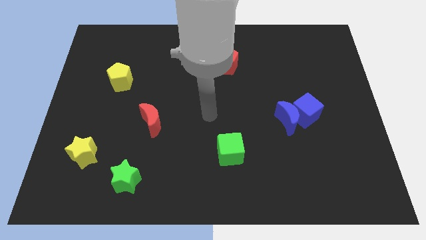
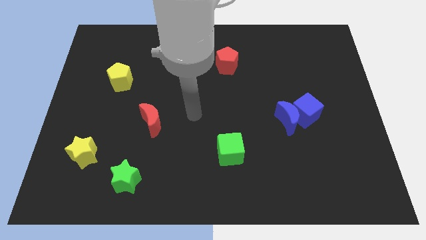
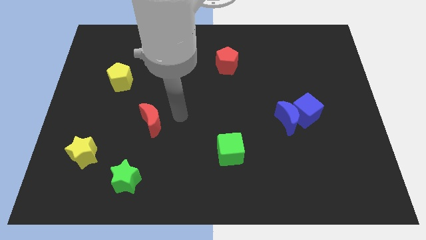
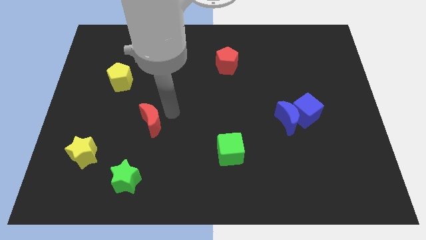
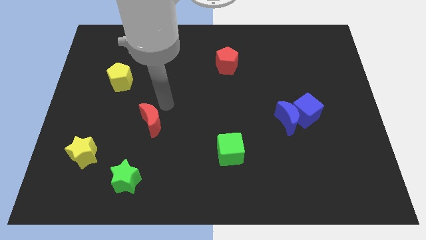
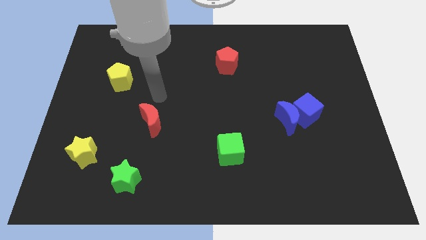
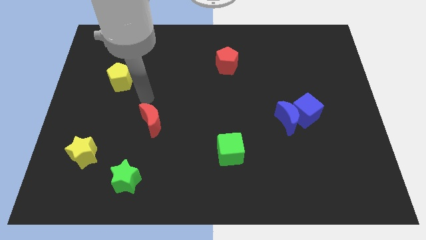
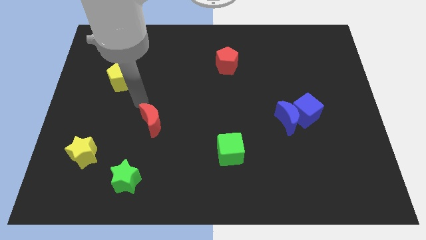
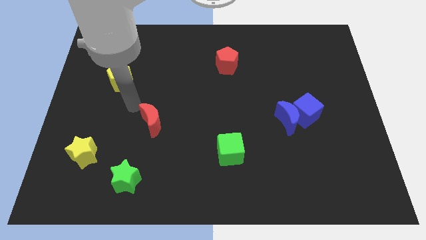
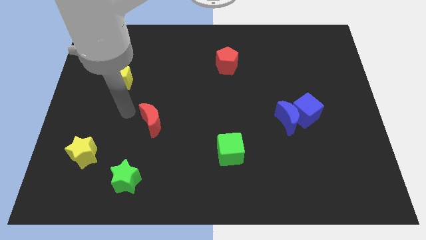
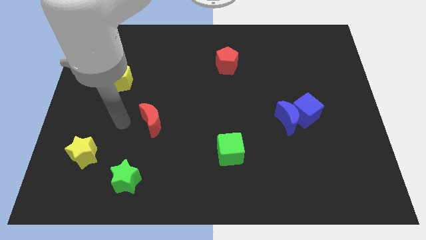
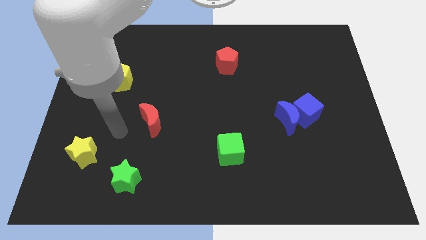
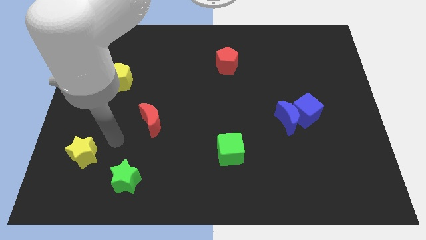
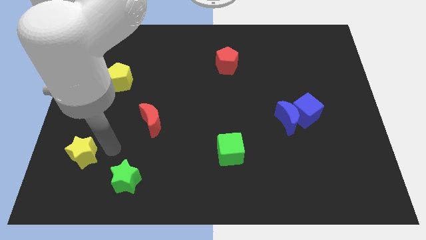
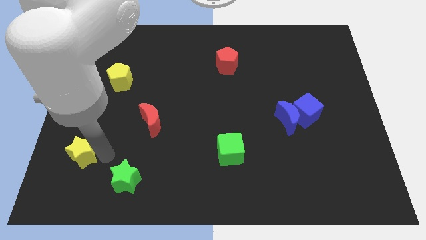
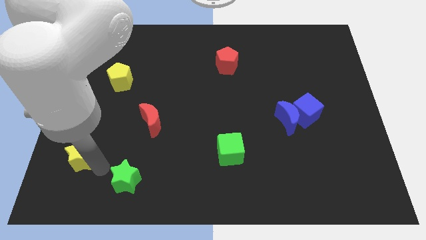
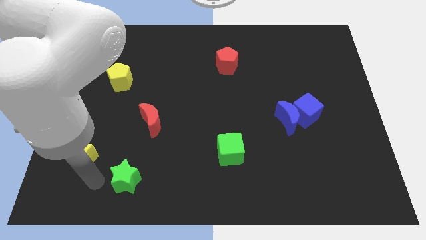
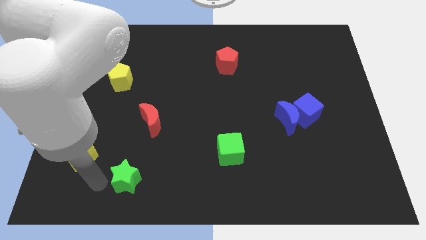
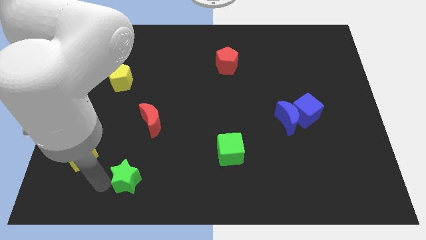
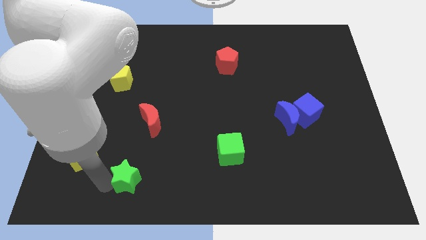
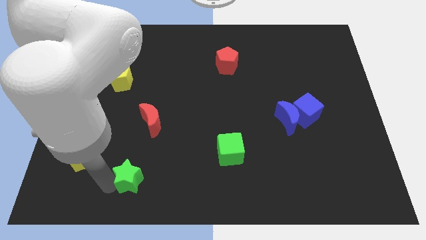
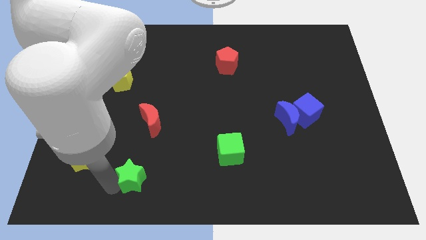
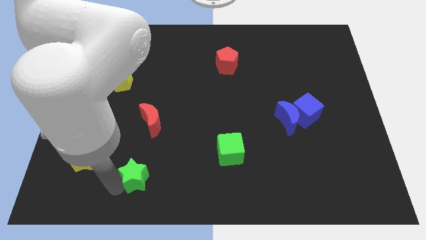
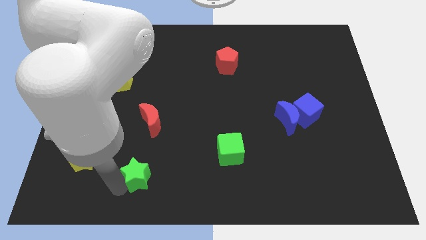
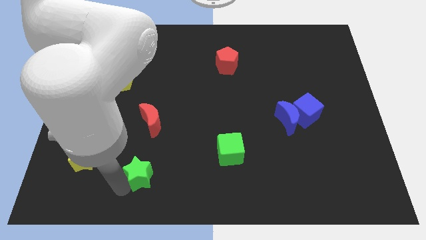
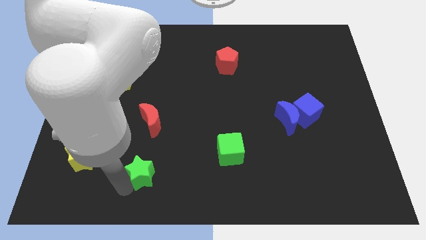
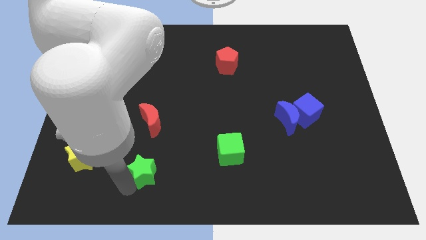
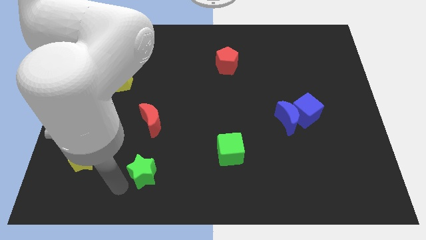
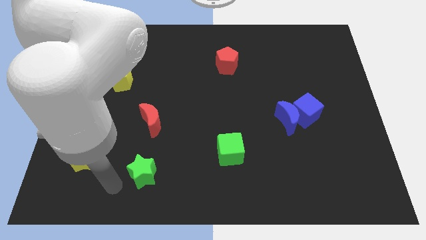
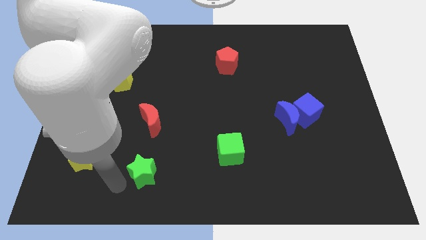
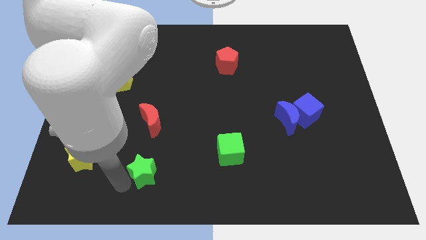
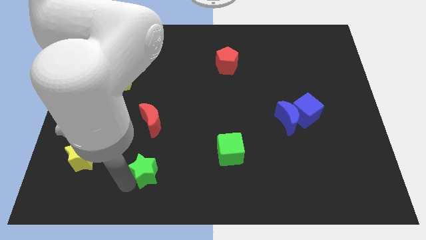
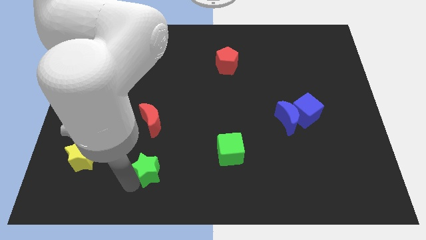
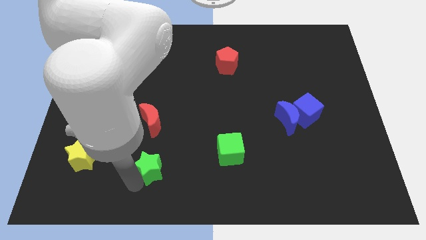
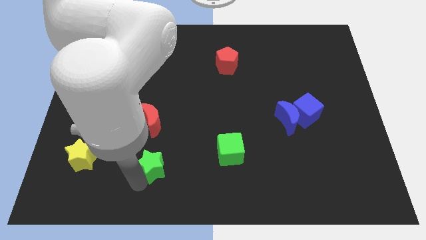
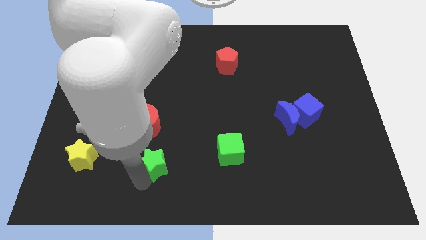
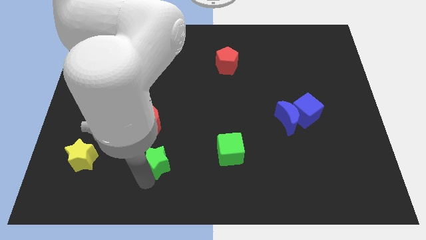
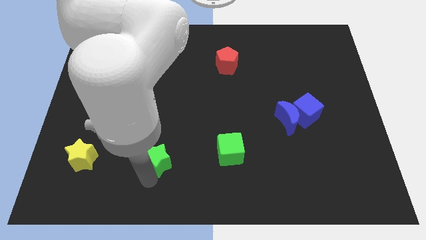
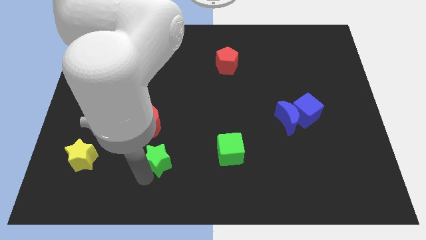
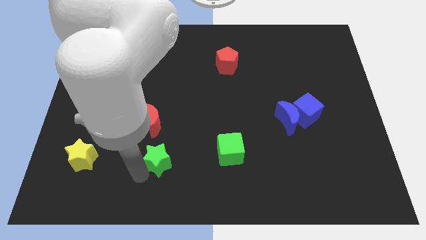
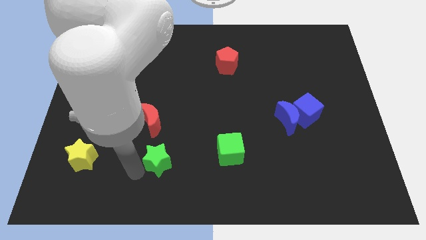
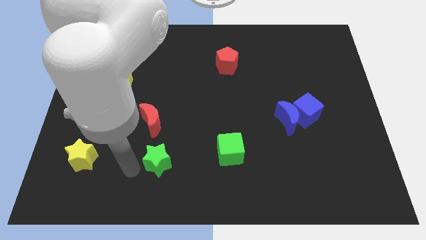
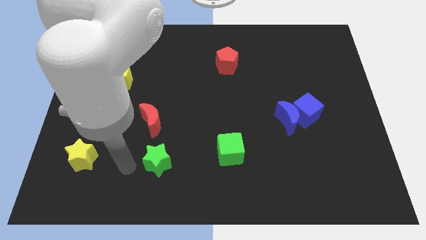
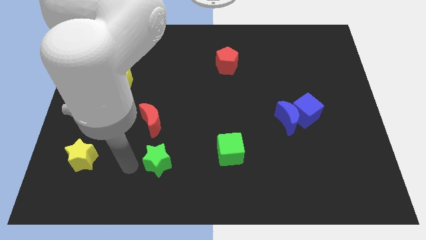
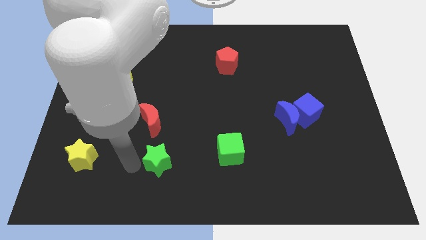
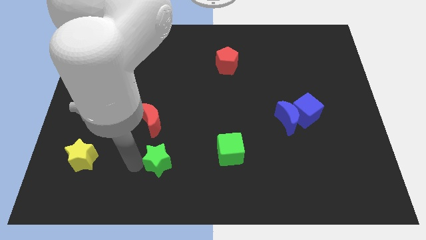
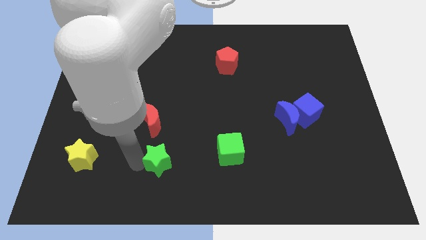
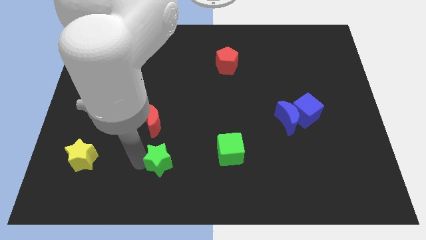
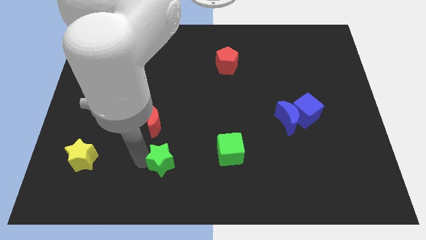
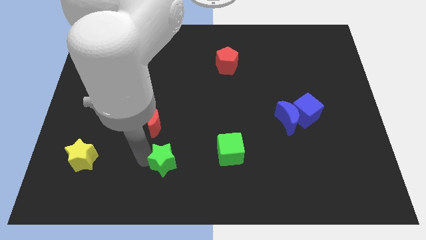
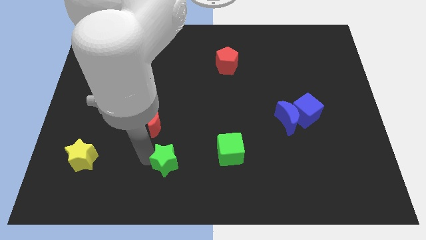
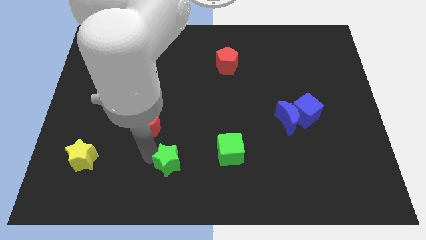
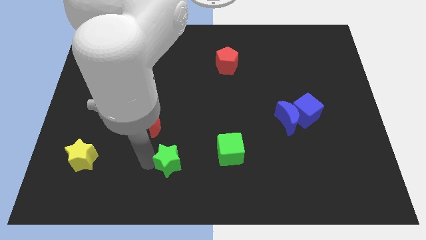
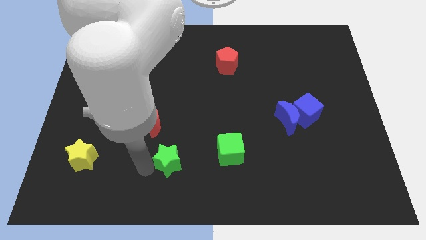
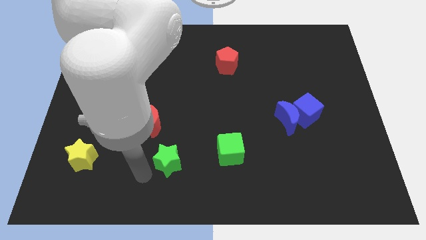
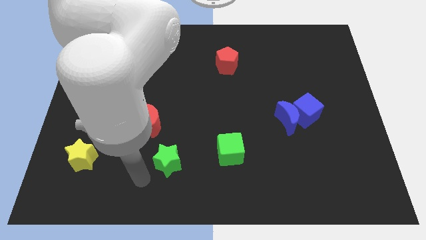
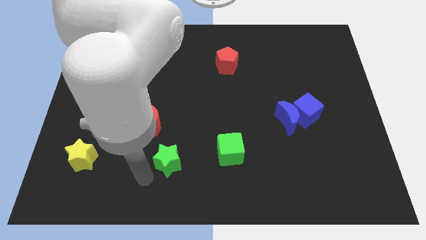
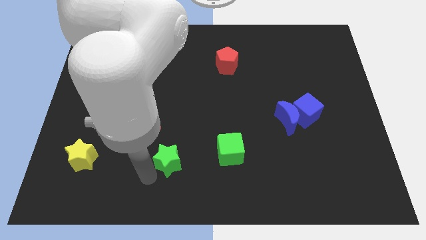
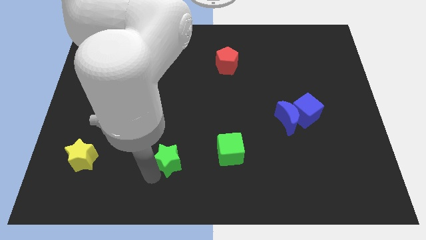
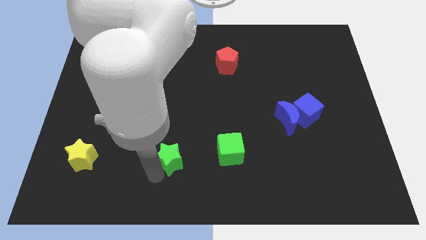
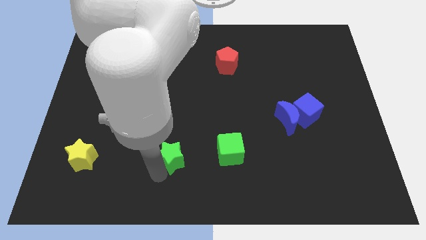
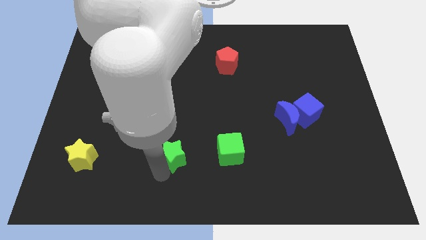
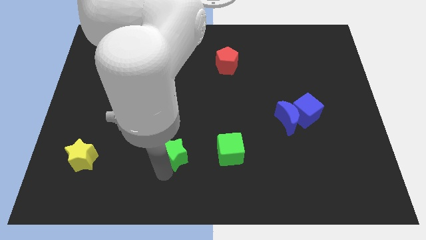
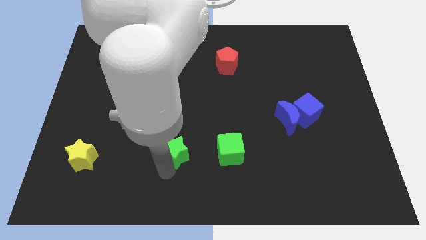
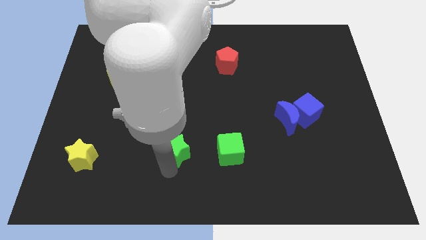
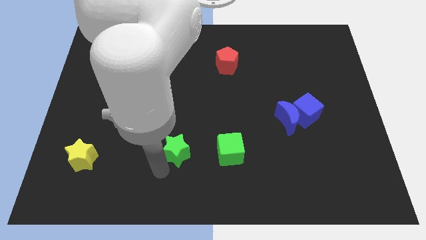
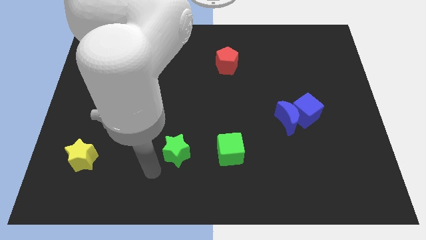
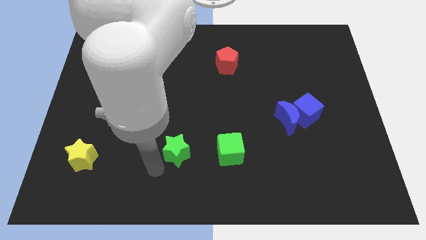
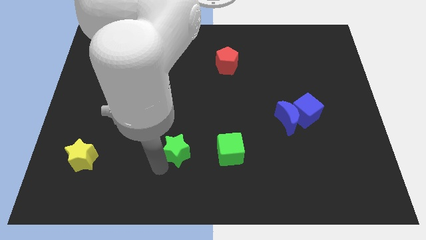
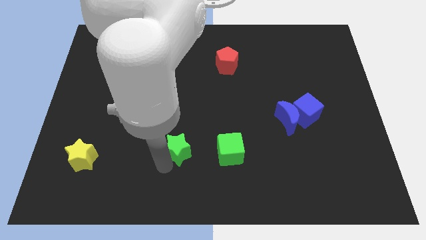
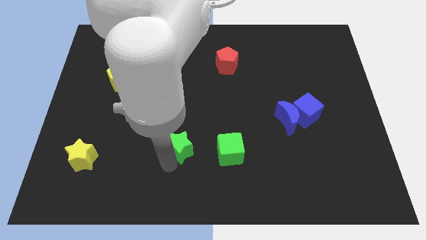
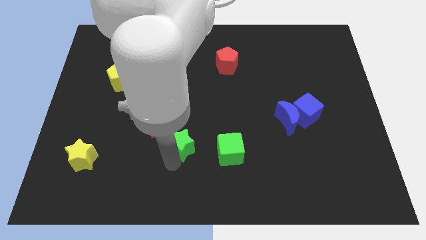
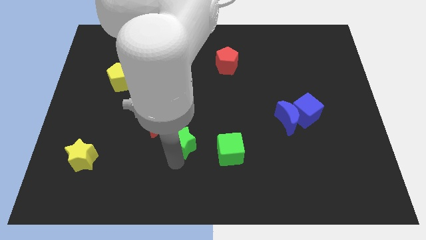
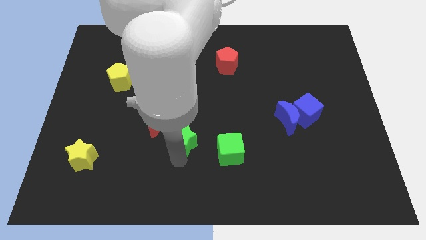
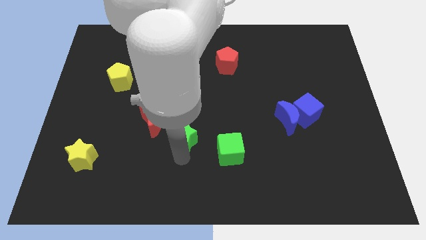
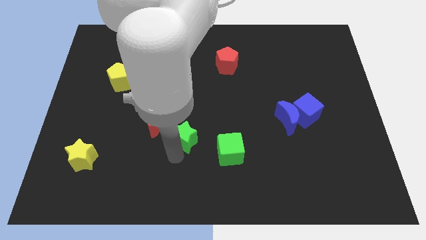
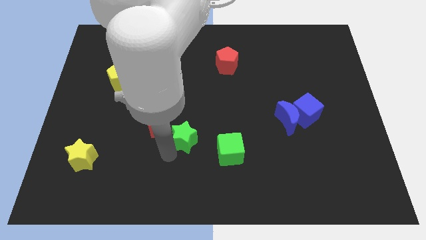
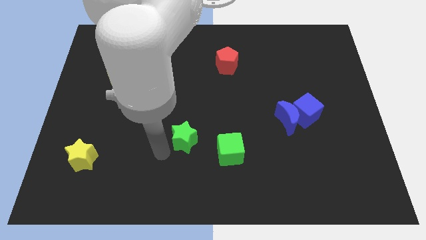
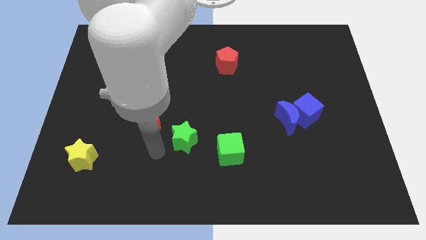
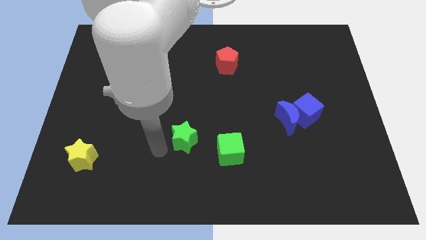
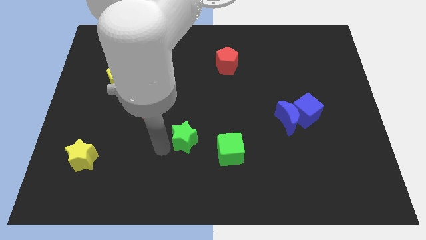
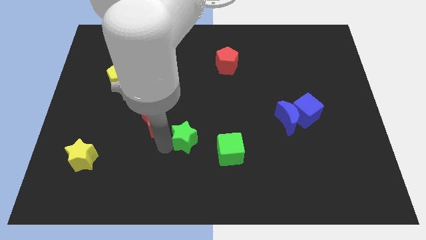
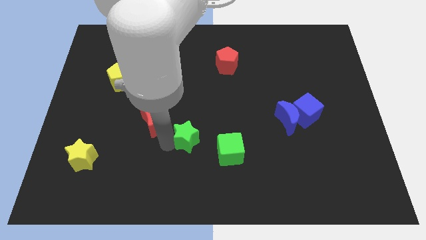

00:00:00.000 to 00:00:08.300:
slide the green star to the top left side of the green cube
